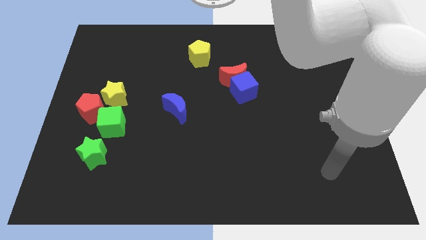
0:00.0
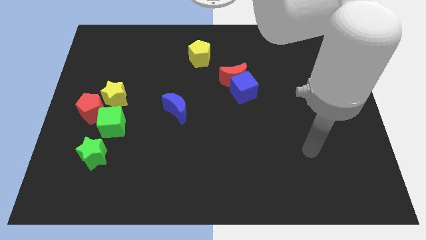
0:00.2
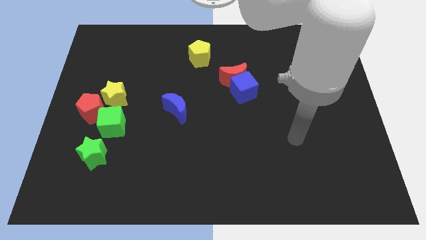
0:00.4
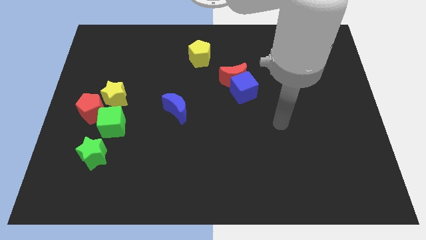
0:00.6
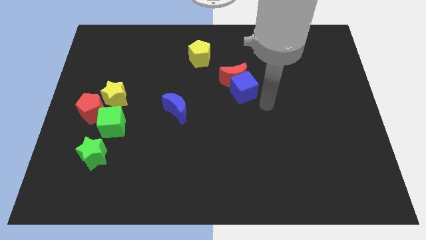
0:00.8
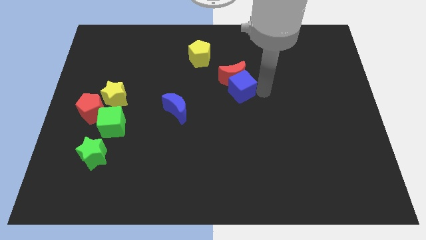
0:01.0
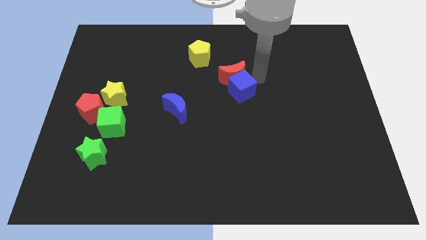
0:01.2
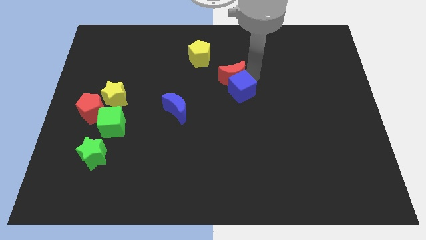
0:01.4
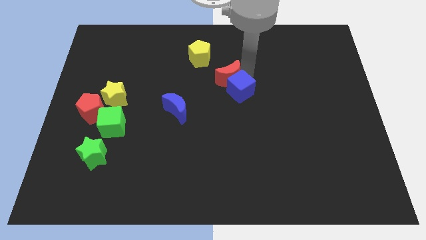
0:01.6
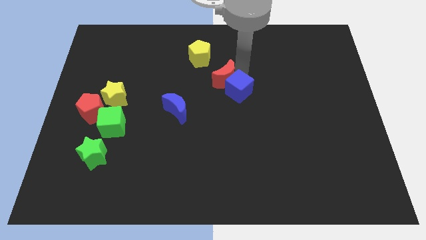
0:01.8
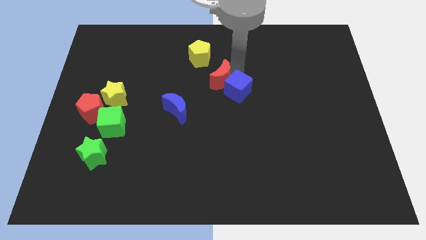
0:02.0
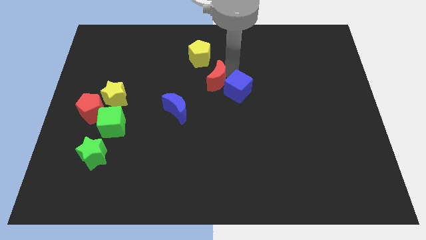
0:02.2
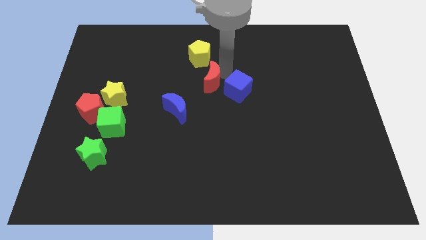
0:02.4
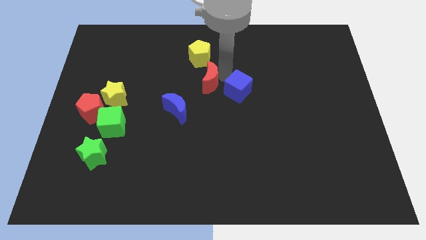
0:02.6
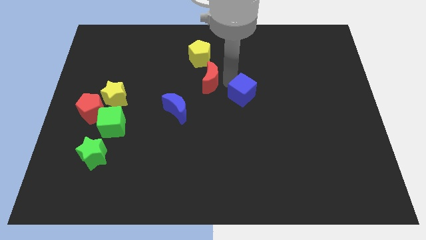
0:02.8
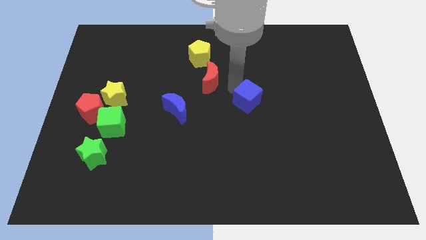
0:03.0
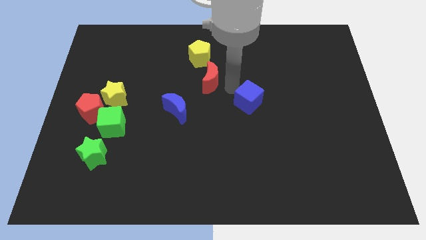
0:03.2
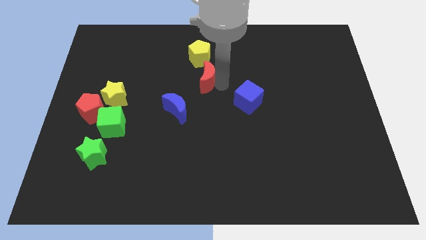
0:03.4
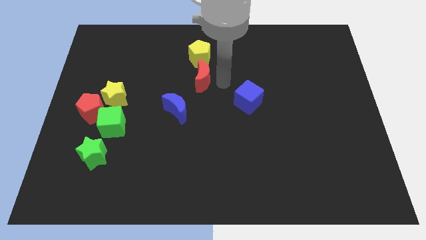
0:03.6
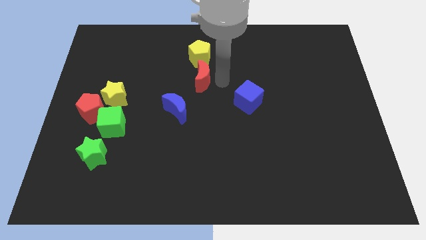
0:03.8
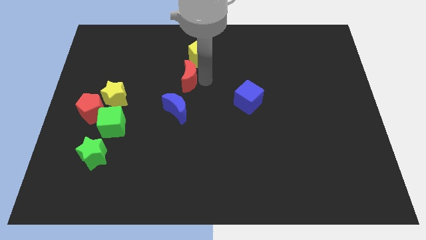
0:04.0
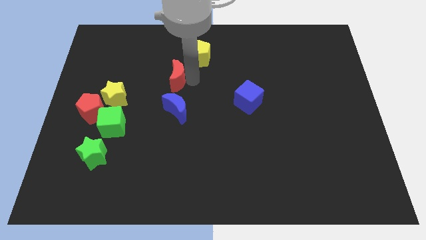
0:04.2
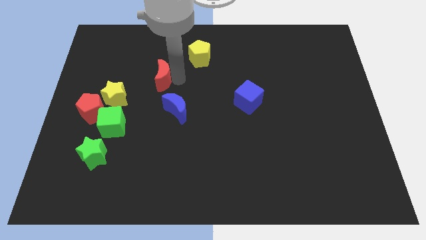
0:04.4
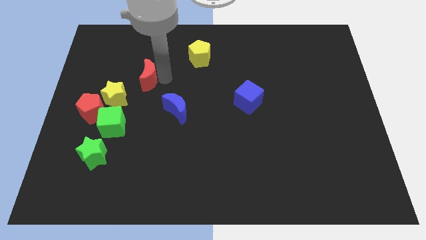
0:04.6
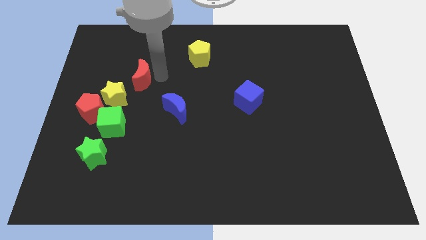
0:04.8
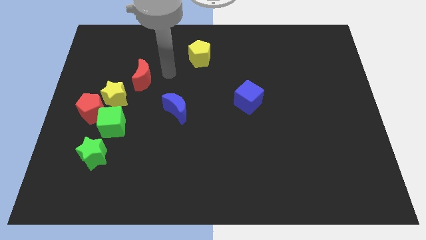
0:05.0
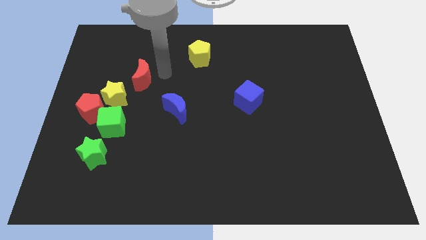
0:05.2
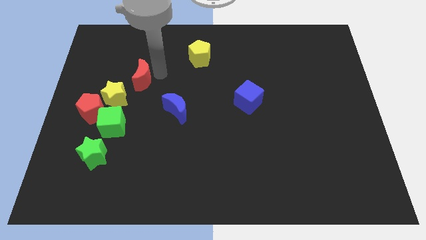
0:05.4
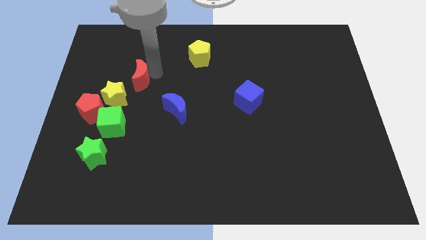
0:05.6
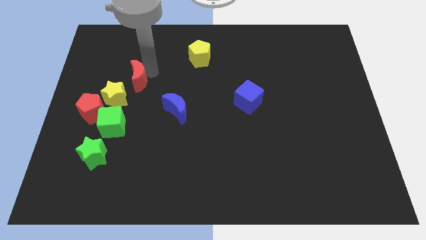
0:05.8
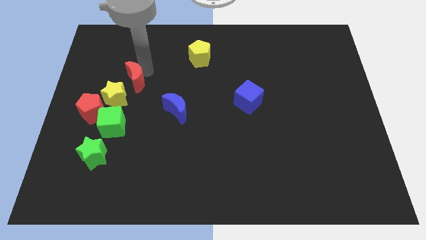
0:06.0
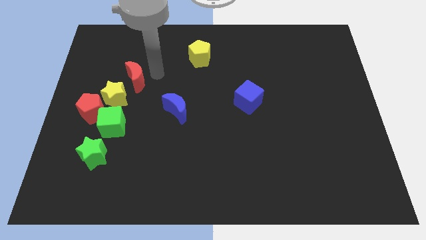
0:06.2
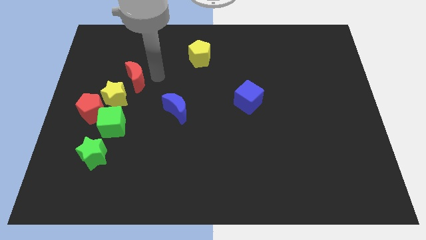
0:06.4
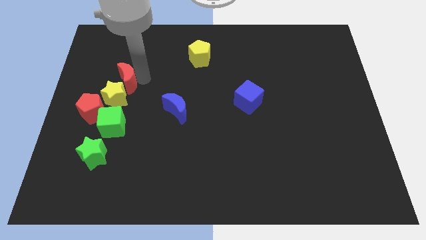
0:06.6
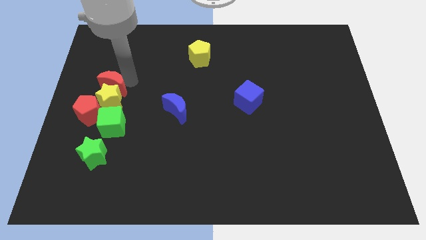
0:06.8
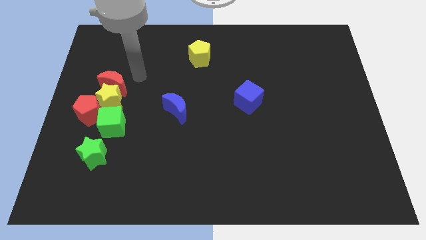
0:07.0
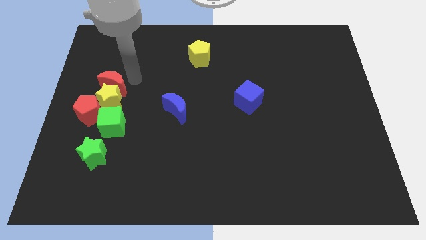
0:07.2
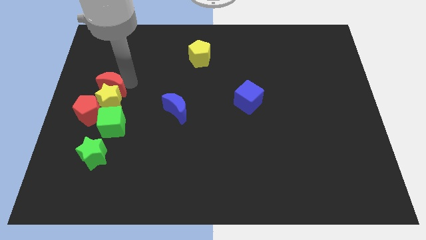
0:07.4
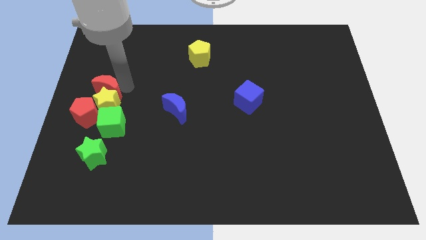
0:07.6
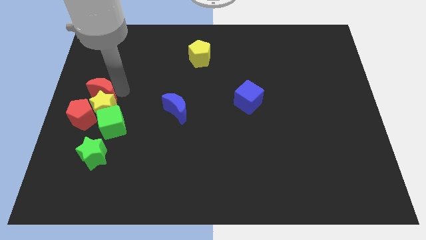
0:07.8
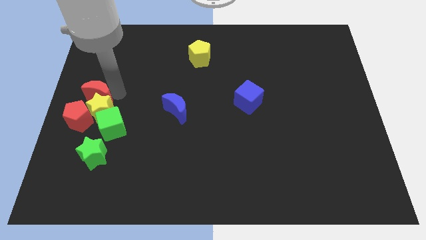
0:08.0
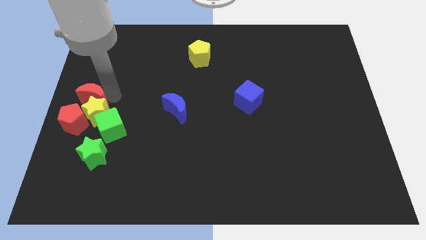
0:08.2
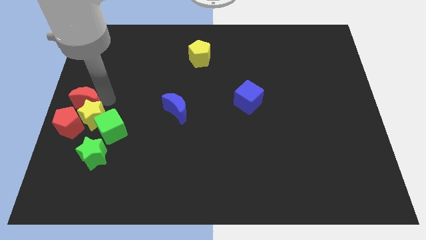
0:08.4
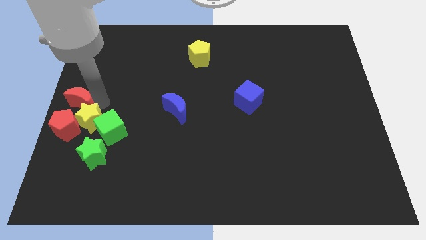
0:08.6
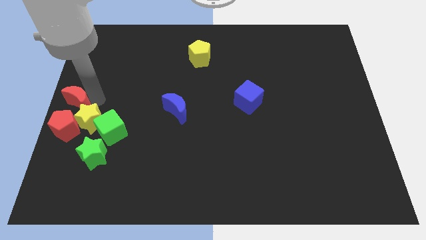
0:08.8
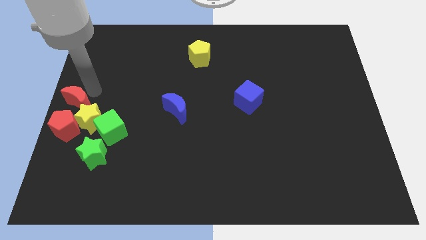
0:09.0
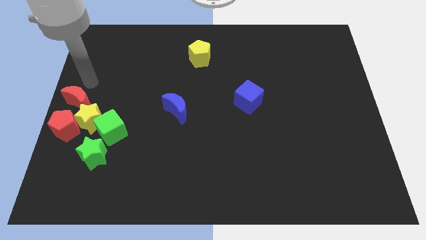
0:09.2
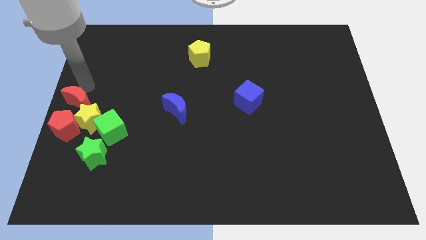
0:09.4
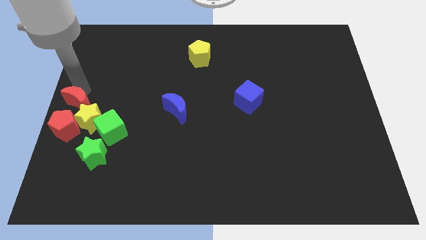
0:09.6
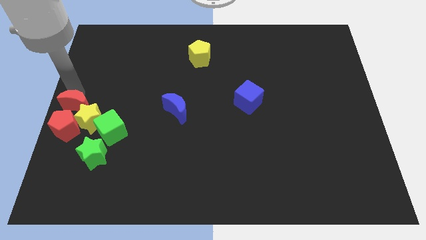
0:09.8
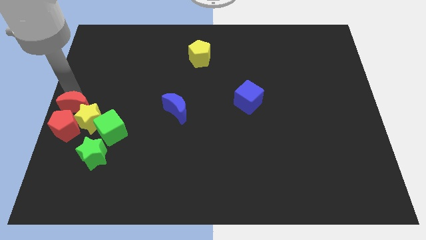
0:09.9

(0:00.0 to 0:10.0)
push the red moon next to the red pentagon

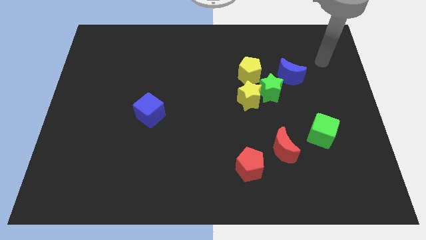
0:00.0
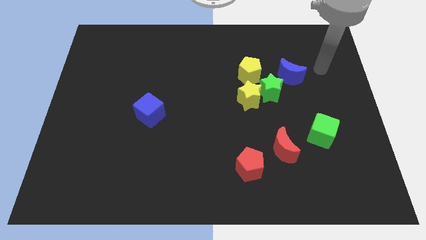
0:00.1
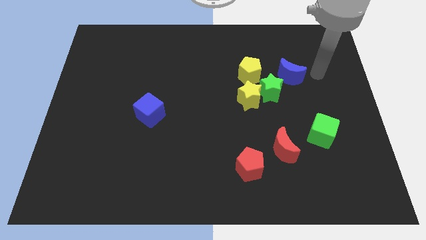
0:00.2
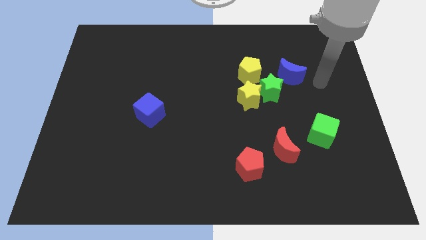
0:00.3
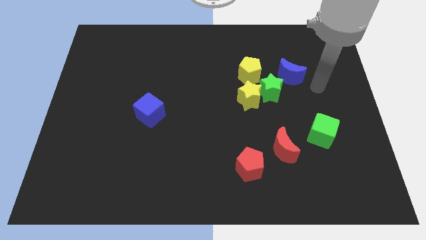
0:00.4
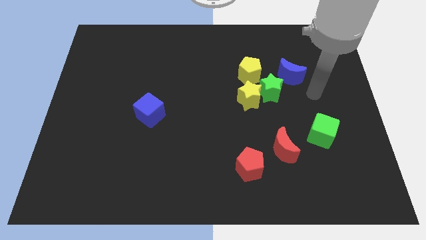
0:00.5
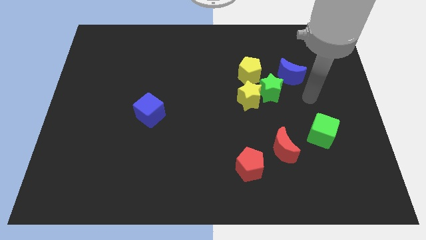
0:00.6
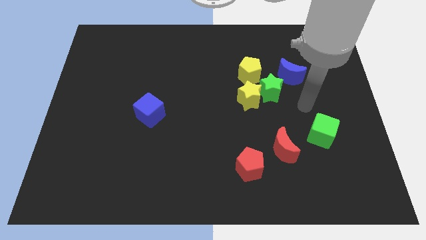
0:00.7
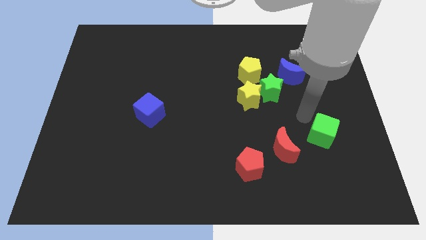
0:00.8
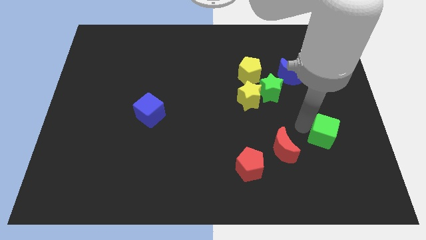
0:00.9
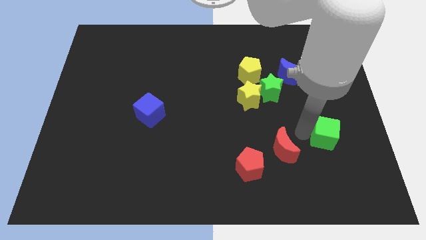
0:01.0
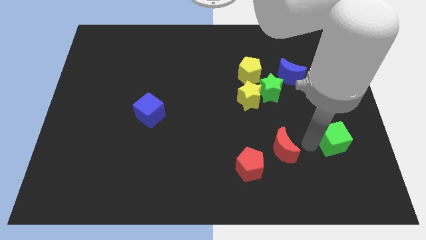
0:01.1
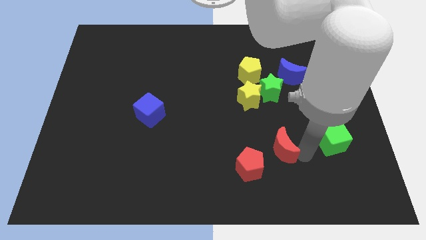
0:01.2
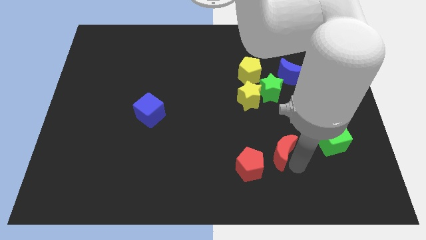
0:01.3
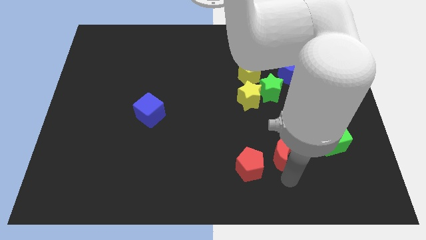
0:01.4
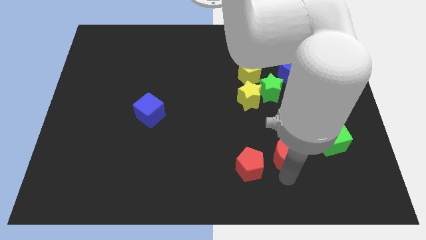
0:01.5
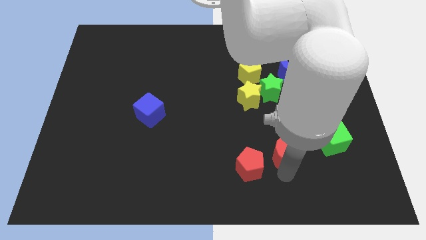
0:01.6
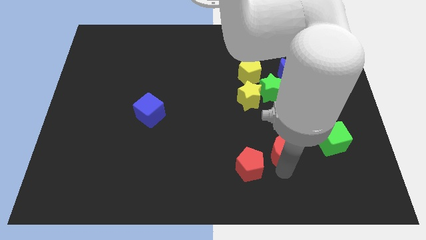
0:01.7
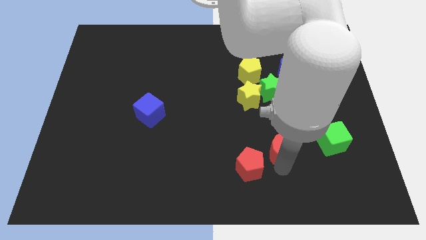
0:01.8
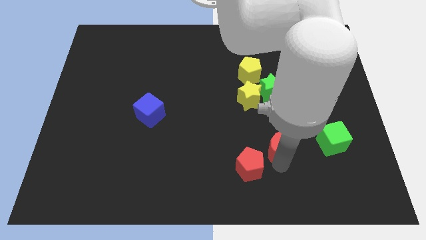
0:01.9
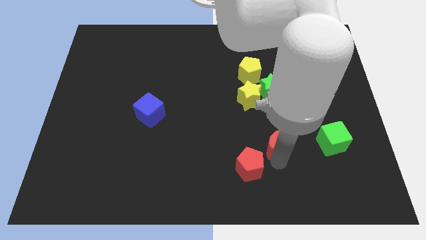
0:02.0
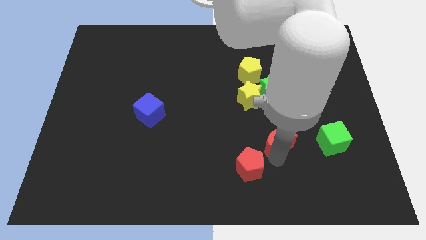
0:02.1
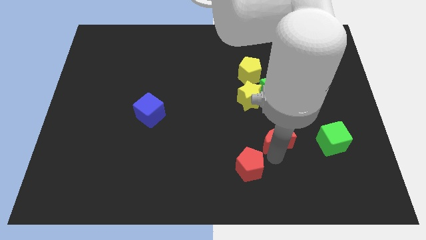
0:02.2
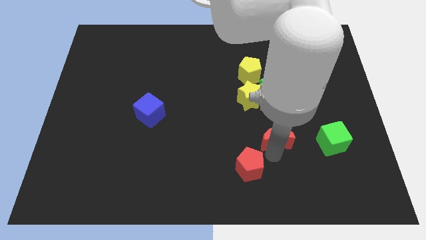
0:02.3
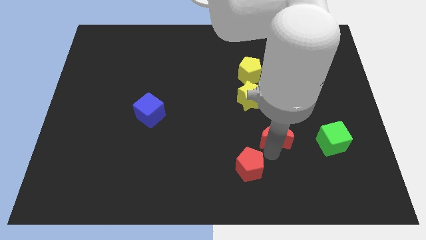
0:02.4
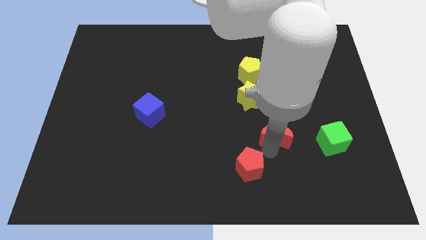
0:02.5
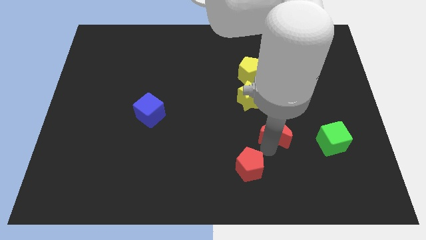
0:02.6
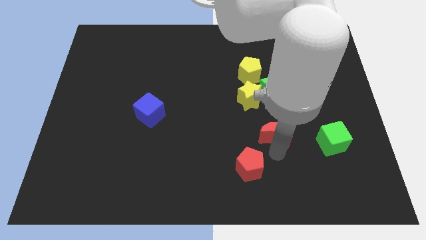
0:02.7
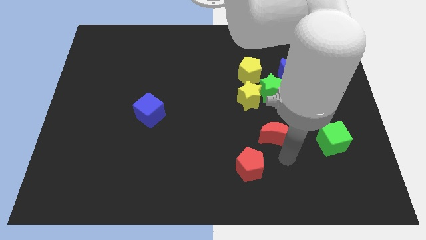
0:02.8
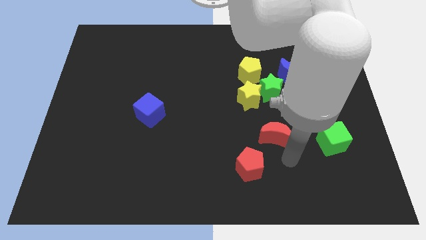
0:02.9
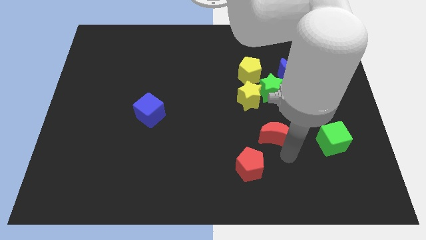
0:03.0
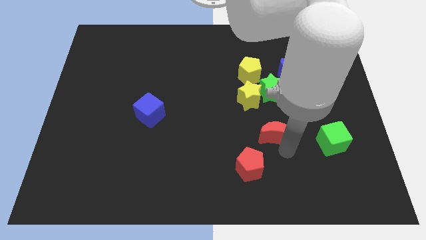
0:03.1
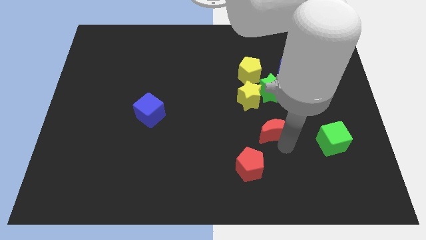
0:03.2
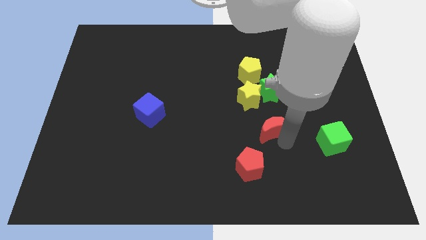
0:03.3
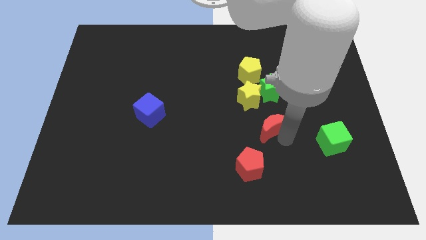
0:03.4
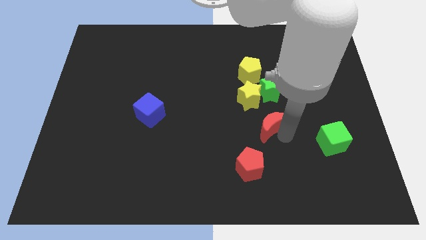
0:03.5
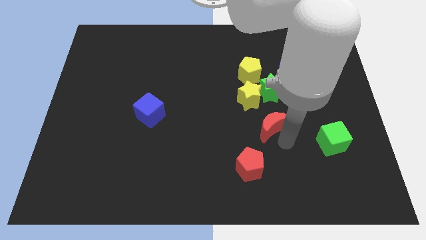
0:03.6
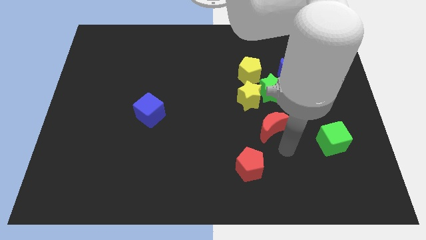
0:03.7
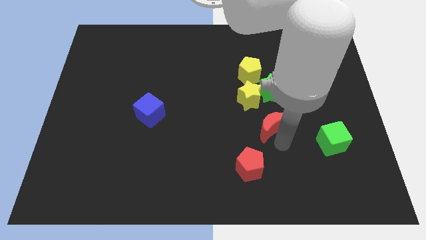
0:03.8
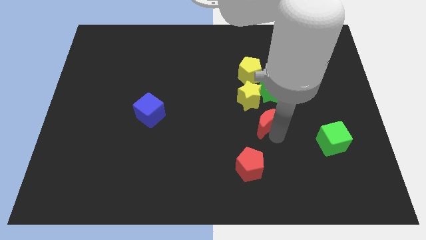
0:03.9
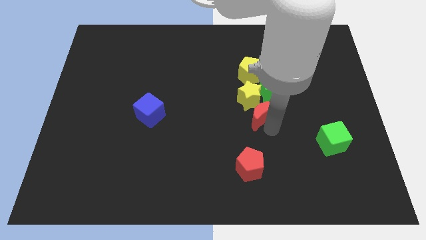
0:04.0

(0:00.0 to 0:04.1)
slide the red moon next to the yellow star
